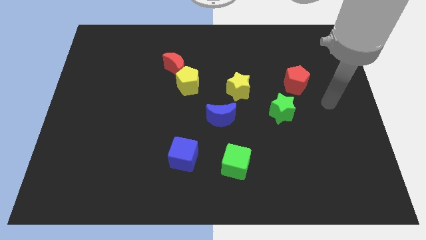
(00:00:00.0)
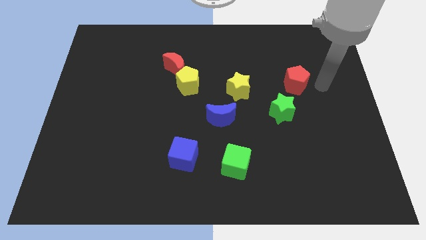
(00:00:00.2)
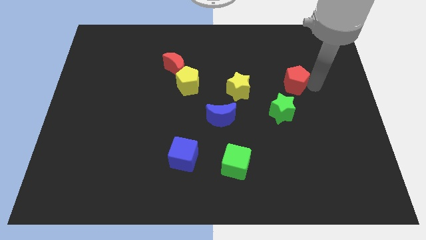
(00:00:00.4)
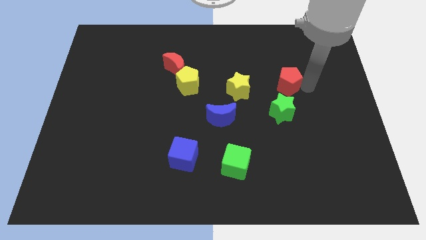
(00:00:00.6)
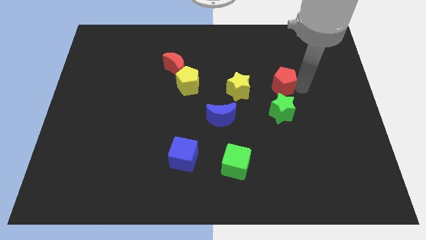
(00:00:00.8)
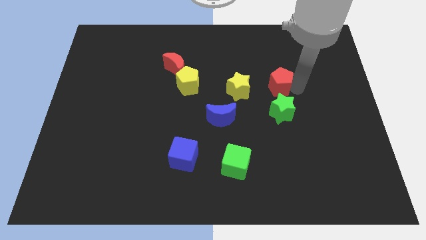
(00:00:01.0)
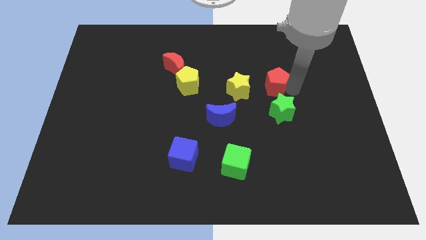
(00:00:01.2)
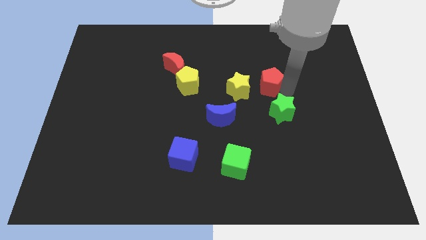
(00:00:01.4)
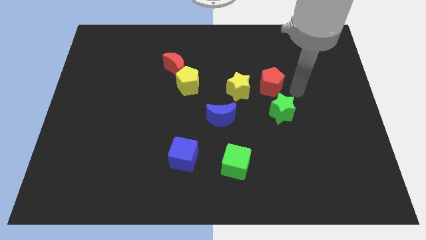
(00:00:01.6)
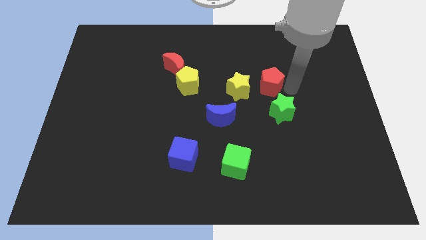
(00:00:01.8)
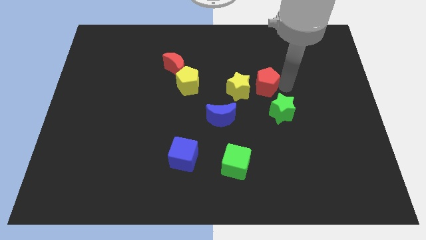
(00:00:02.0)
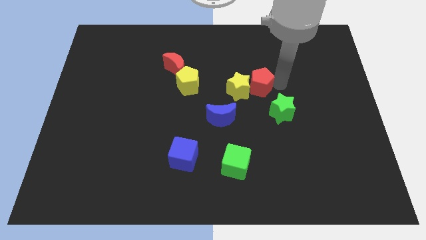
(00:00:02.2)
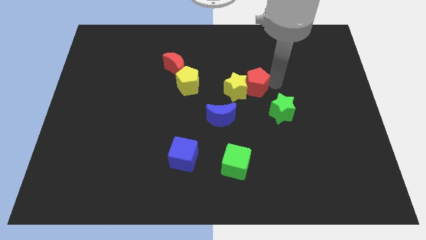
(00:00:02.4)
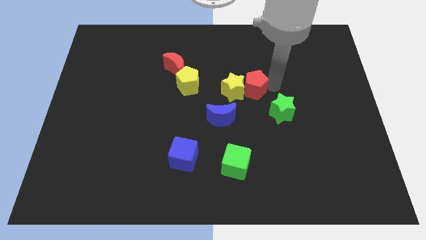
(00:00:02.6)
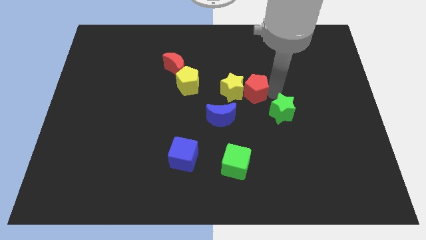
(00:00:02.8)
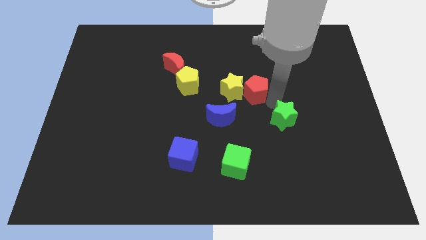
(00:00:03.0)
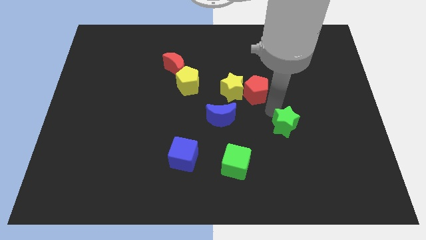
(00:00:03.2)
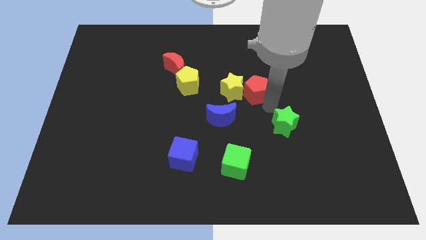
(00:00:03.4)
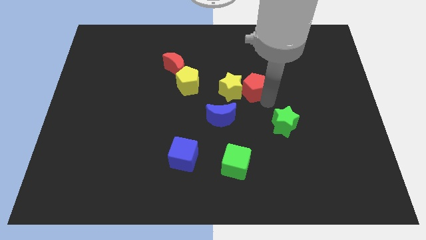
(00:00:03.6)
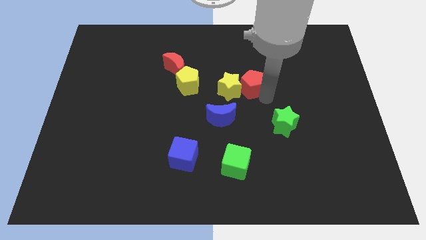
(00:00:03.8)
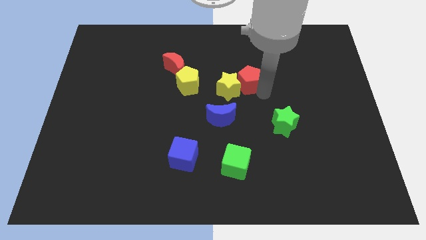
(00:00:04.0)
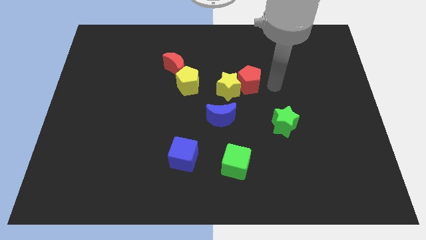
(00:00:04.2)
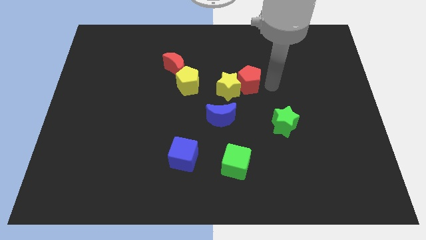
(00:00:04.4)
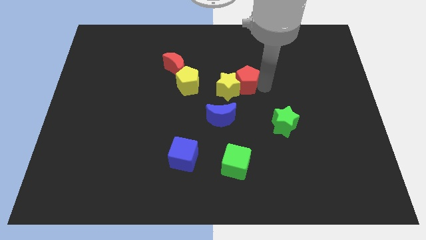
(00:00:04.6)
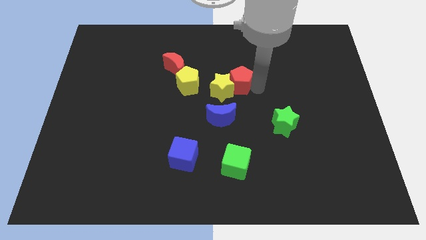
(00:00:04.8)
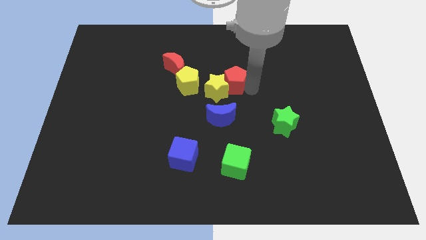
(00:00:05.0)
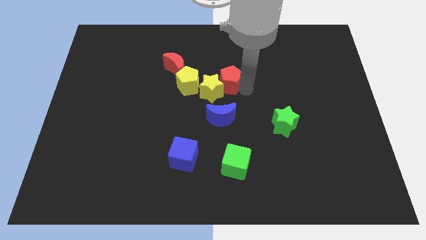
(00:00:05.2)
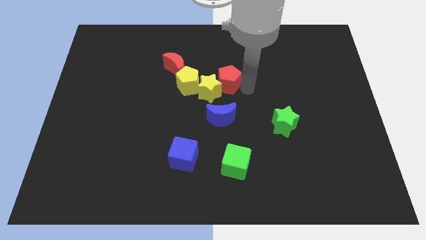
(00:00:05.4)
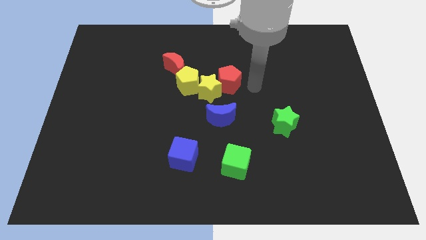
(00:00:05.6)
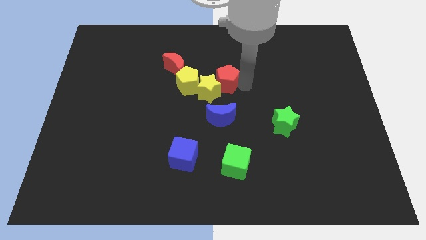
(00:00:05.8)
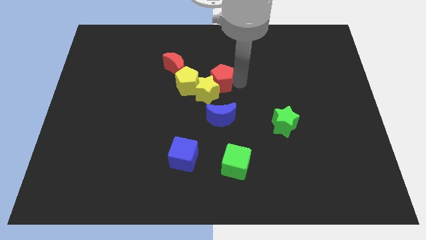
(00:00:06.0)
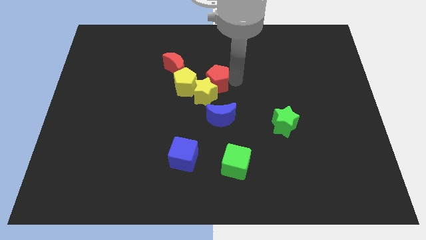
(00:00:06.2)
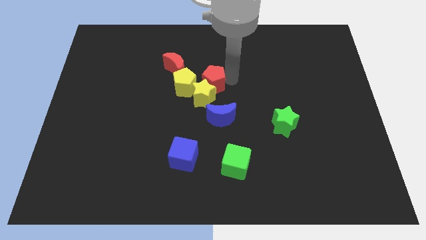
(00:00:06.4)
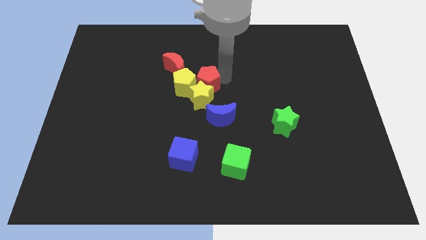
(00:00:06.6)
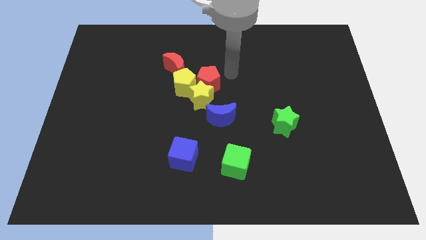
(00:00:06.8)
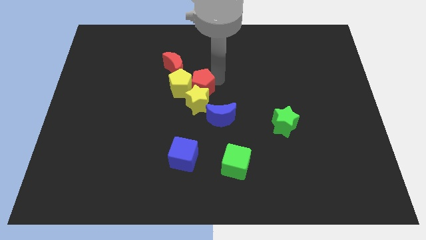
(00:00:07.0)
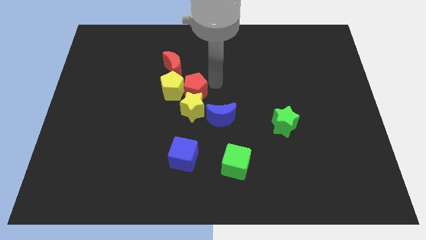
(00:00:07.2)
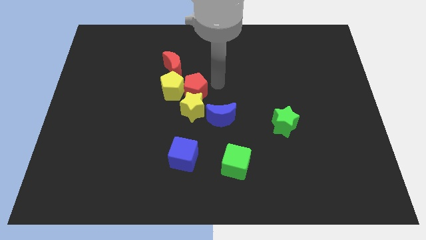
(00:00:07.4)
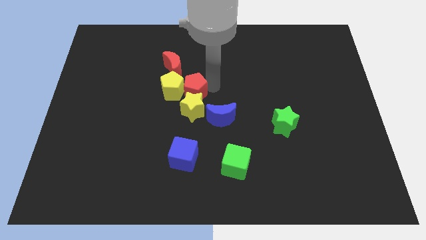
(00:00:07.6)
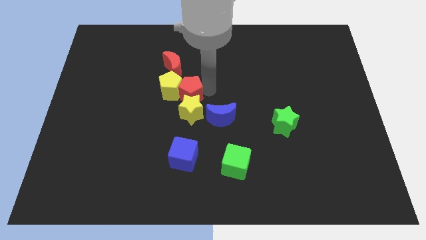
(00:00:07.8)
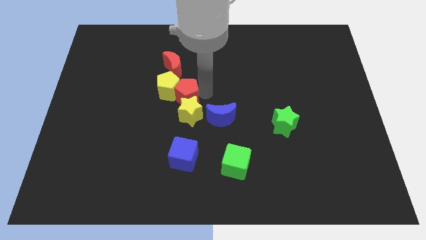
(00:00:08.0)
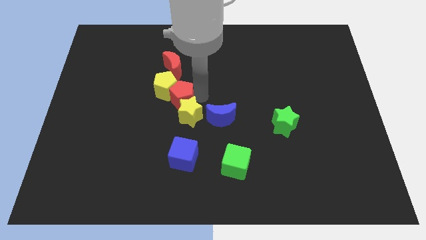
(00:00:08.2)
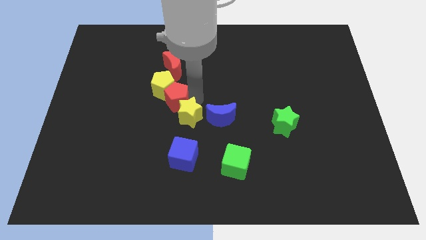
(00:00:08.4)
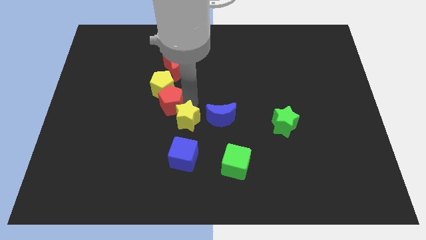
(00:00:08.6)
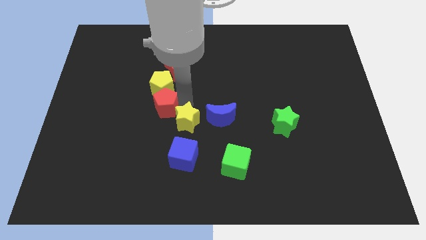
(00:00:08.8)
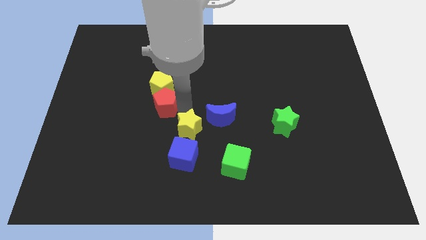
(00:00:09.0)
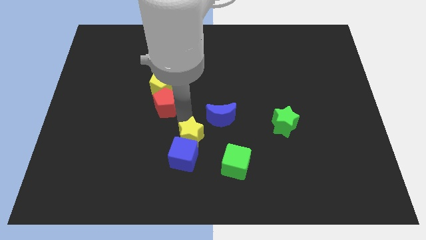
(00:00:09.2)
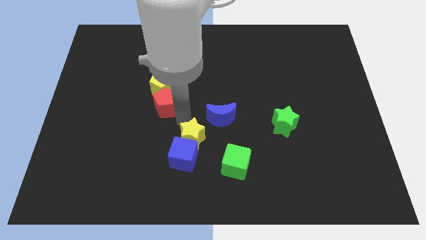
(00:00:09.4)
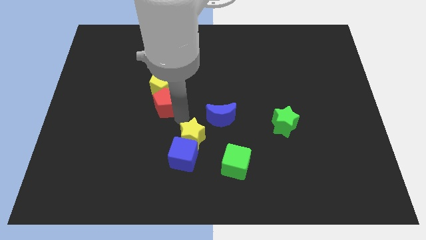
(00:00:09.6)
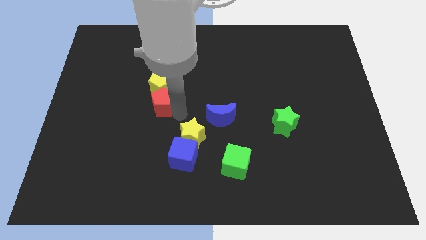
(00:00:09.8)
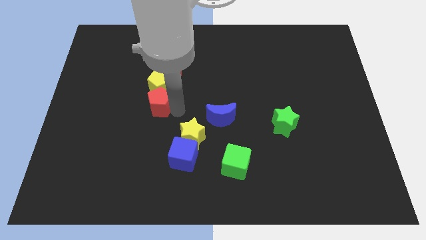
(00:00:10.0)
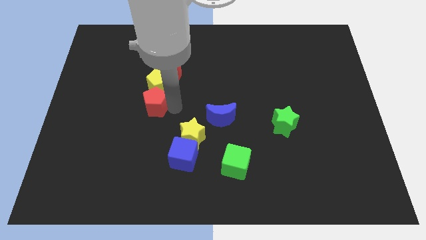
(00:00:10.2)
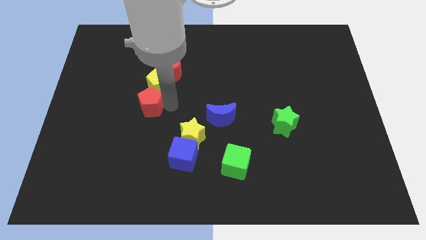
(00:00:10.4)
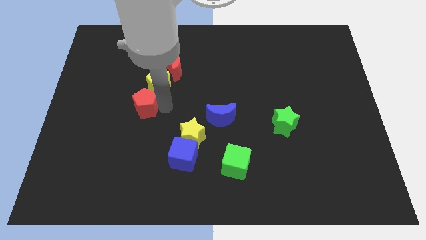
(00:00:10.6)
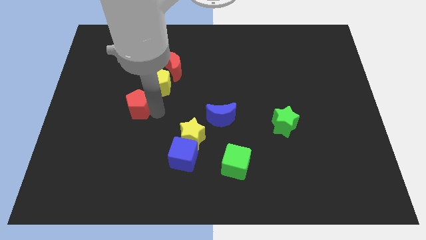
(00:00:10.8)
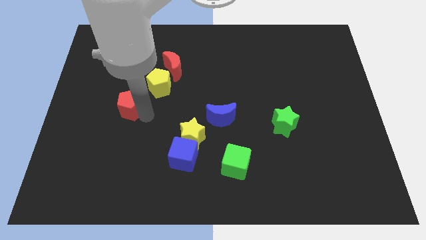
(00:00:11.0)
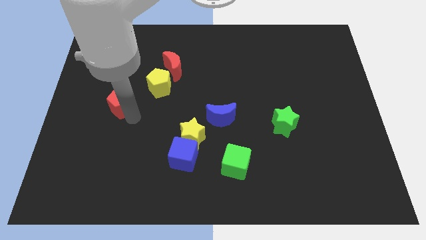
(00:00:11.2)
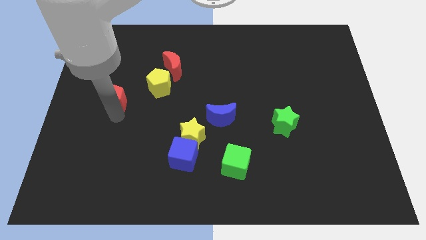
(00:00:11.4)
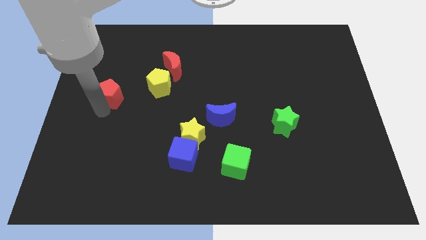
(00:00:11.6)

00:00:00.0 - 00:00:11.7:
slide the red pentagon to the left side
